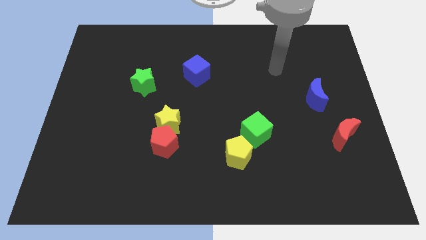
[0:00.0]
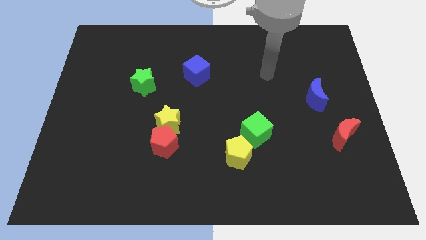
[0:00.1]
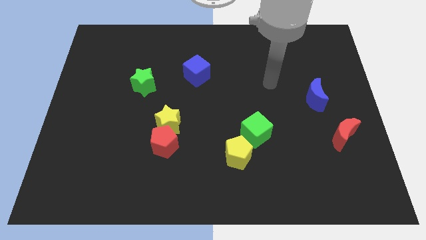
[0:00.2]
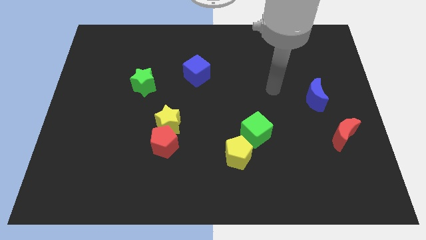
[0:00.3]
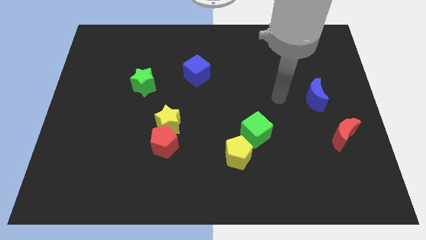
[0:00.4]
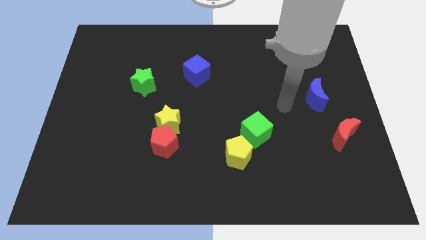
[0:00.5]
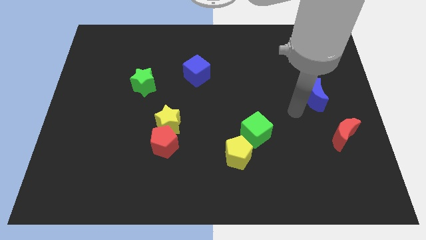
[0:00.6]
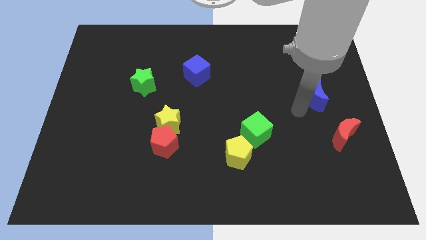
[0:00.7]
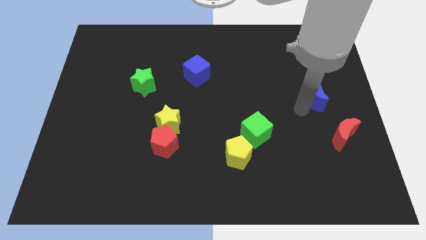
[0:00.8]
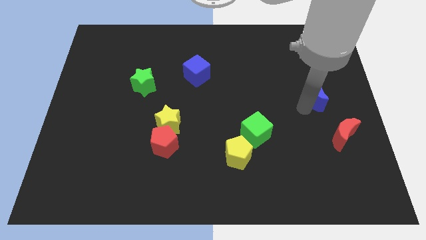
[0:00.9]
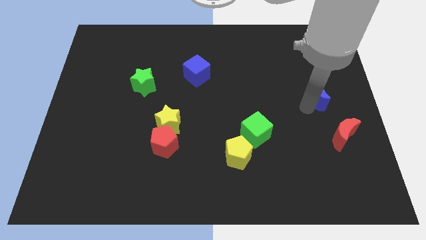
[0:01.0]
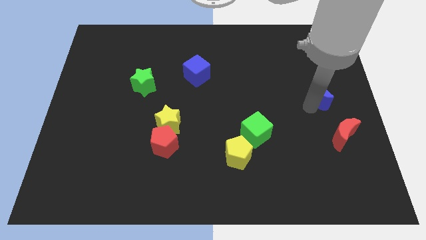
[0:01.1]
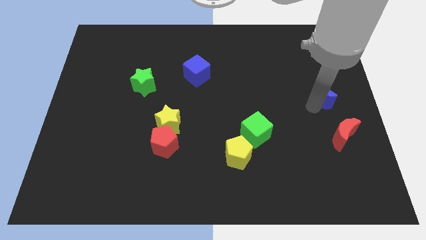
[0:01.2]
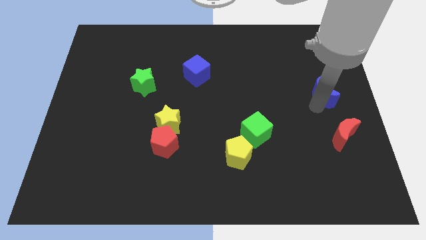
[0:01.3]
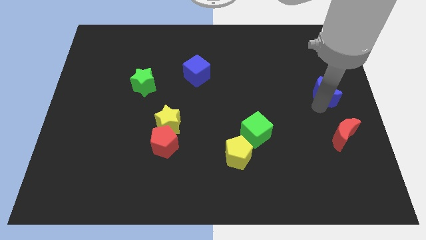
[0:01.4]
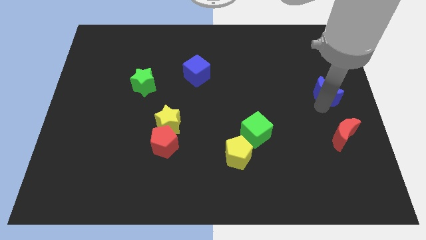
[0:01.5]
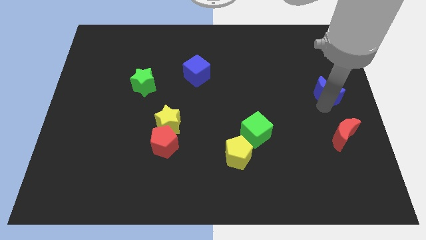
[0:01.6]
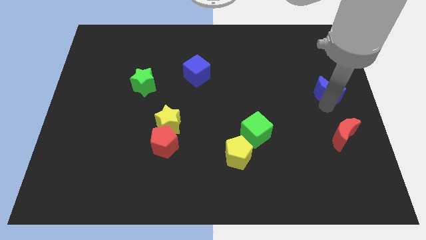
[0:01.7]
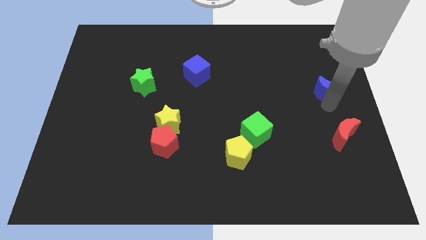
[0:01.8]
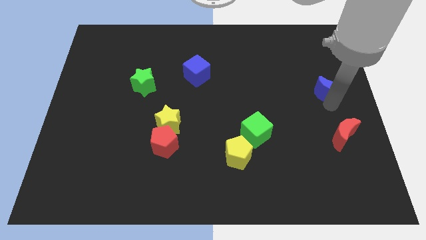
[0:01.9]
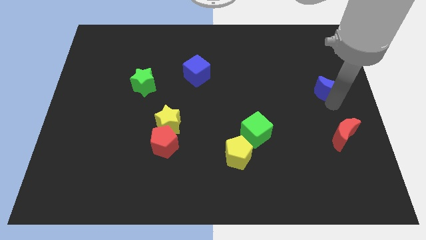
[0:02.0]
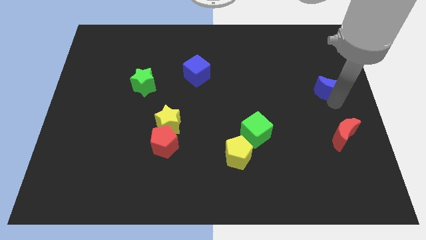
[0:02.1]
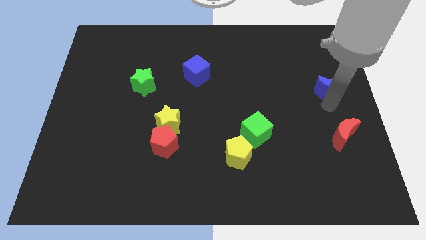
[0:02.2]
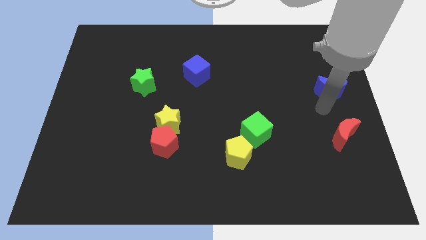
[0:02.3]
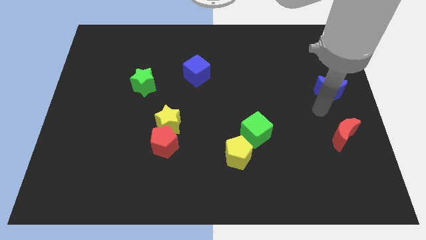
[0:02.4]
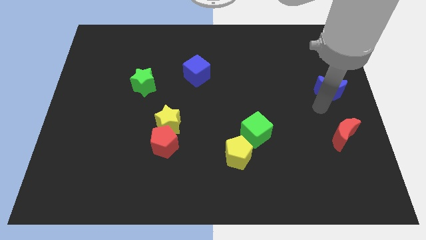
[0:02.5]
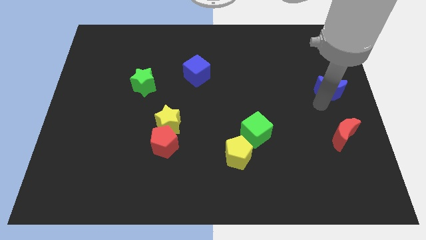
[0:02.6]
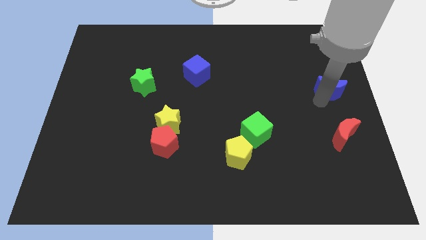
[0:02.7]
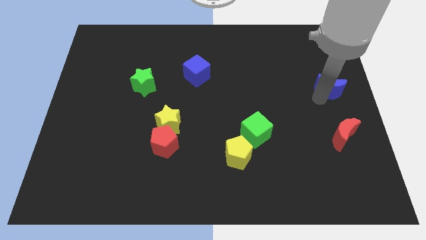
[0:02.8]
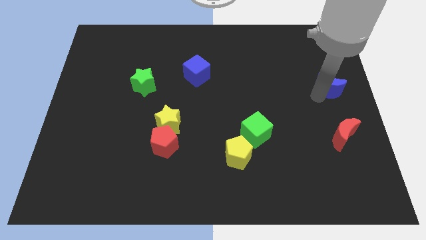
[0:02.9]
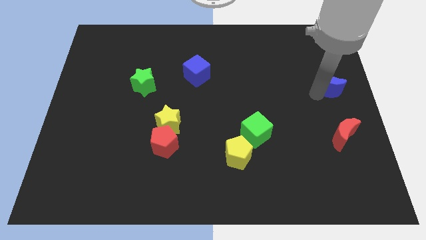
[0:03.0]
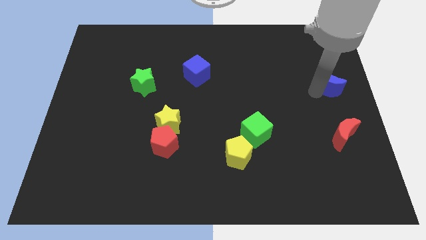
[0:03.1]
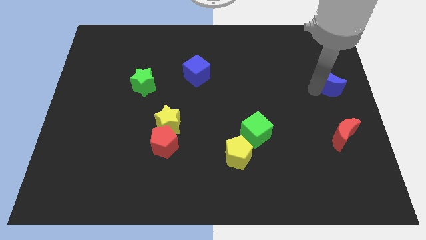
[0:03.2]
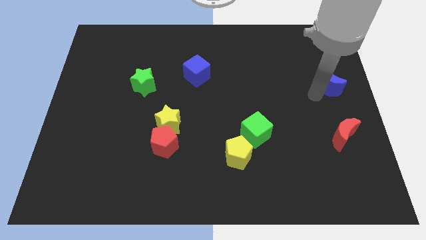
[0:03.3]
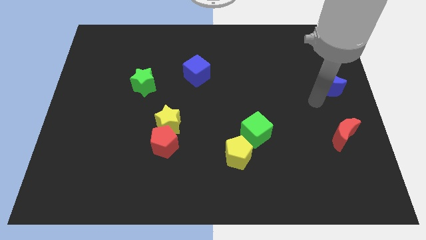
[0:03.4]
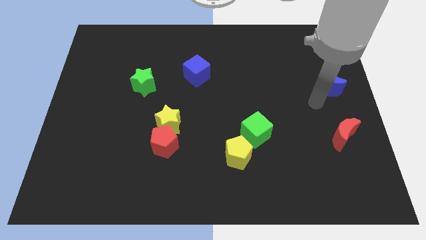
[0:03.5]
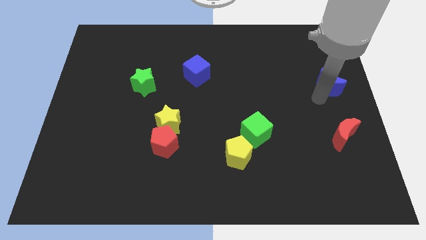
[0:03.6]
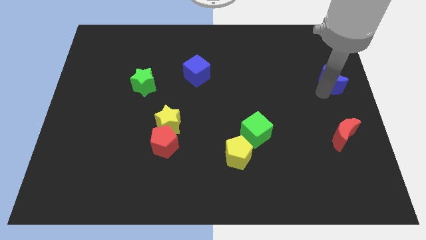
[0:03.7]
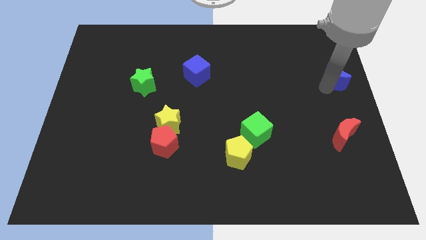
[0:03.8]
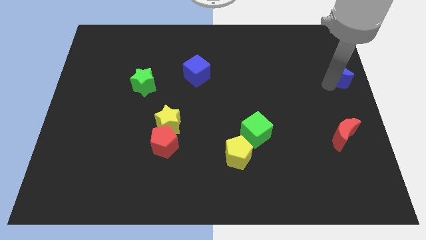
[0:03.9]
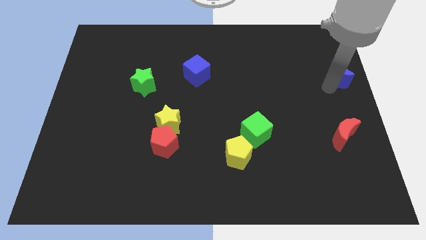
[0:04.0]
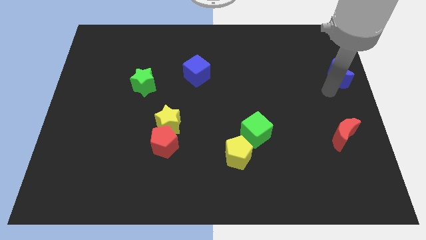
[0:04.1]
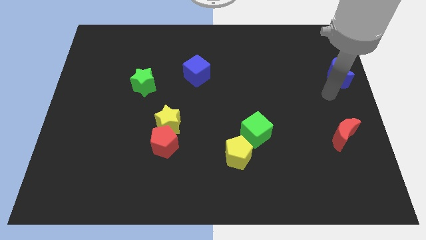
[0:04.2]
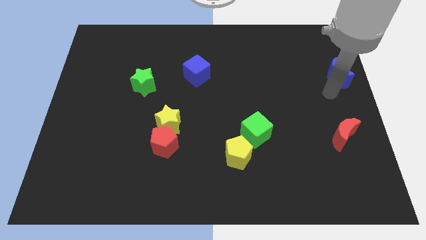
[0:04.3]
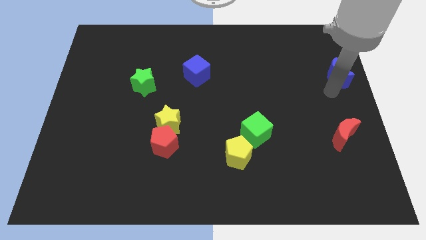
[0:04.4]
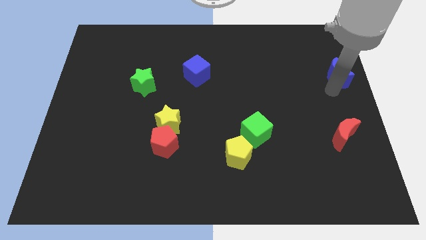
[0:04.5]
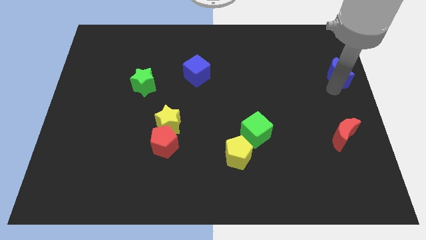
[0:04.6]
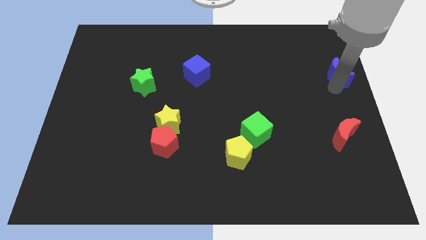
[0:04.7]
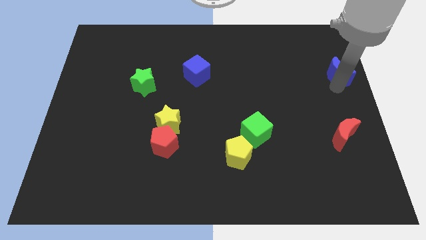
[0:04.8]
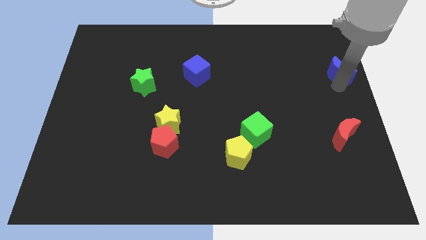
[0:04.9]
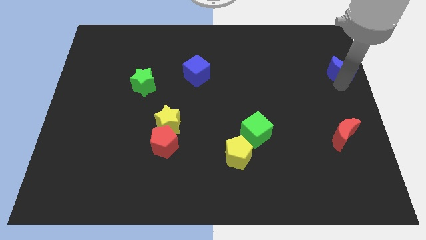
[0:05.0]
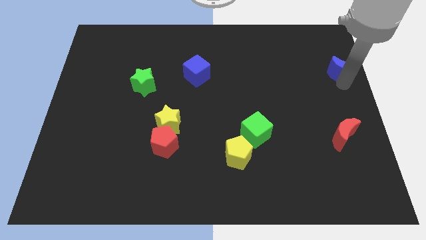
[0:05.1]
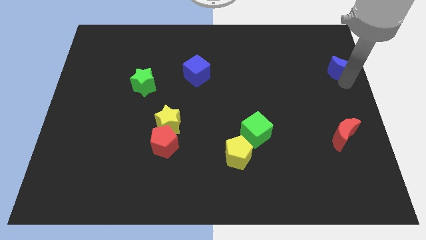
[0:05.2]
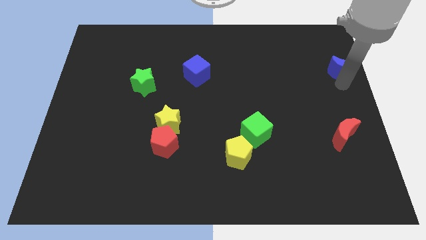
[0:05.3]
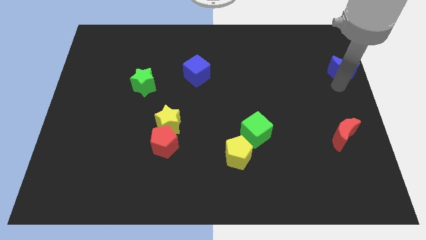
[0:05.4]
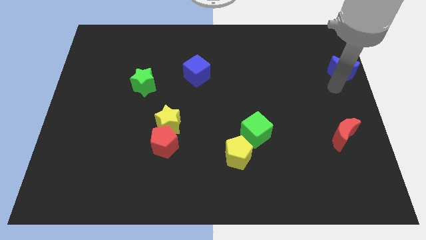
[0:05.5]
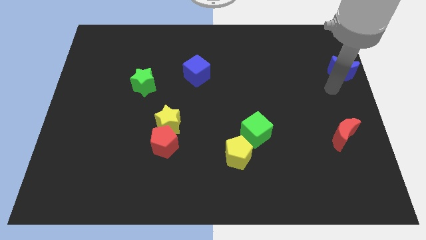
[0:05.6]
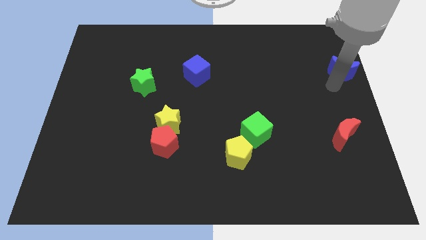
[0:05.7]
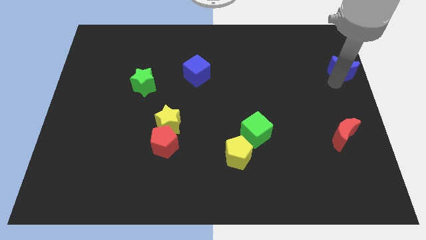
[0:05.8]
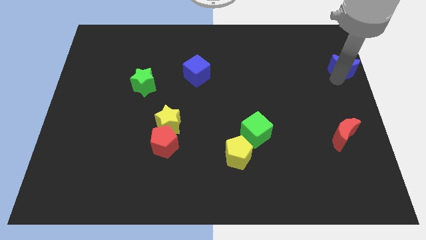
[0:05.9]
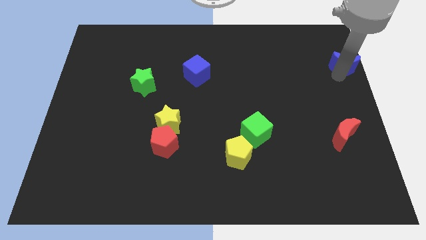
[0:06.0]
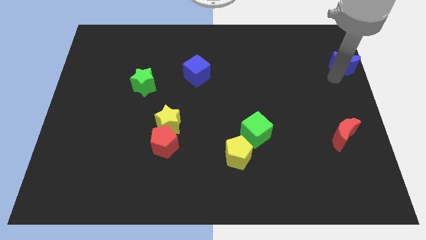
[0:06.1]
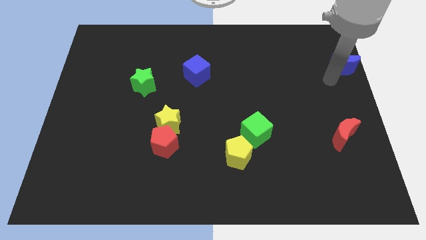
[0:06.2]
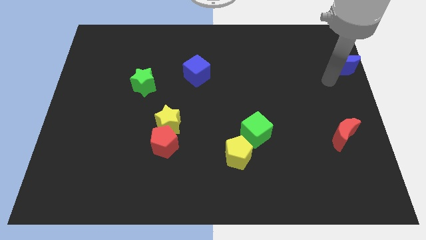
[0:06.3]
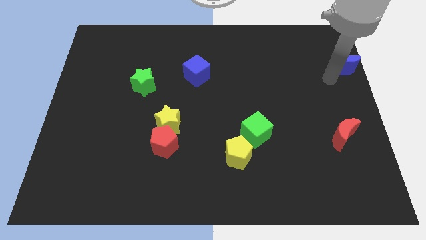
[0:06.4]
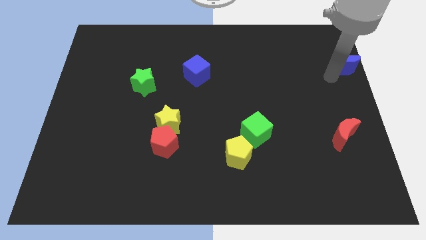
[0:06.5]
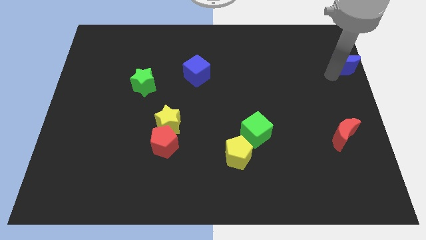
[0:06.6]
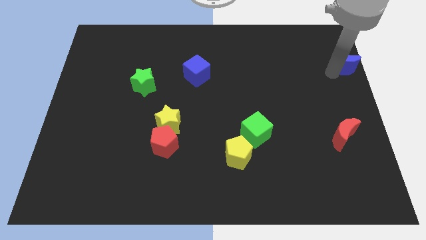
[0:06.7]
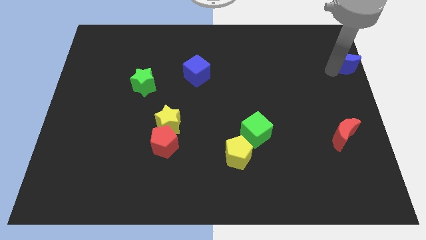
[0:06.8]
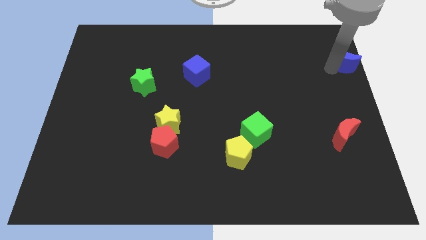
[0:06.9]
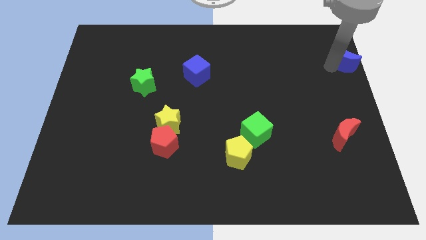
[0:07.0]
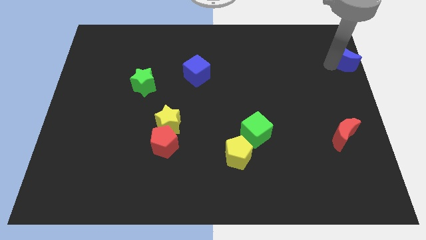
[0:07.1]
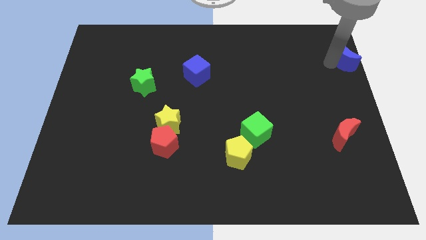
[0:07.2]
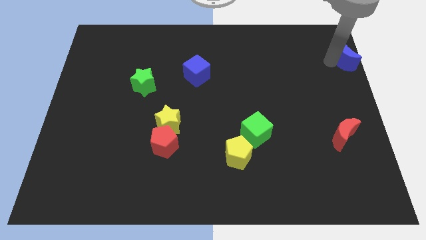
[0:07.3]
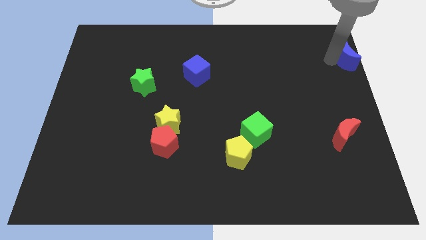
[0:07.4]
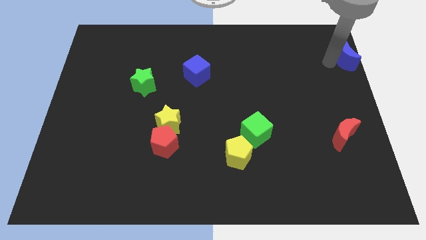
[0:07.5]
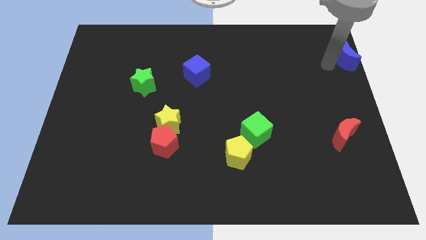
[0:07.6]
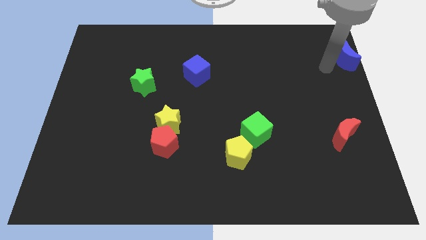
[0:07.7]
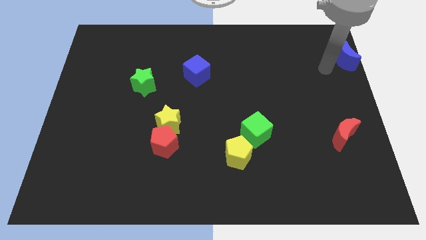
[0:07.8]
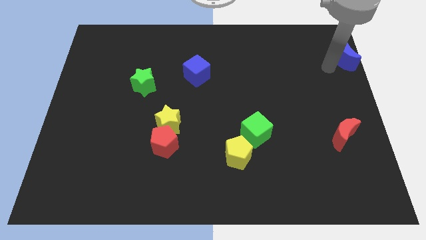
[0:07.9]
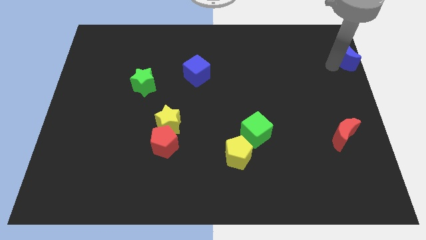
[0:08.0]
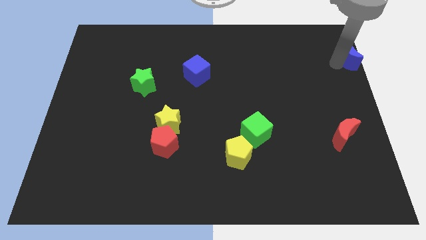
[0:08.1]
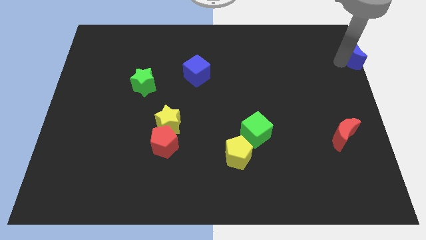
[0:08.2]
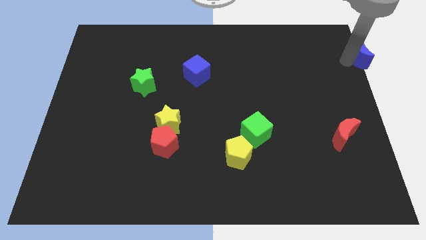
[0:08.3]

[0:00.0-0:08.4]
push the blue moon to the top right corner

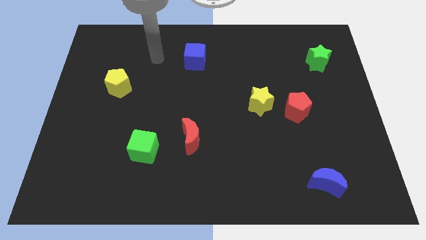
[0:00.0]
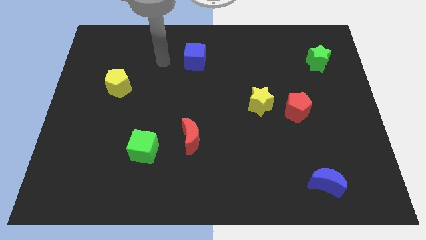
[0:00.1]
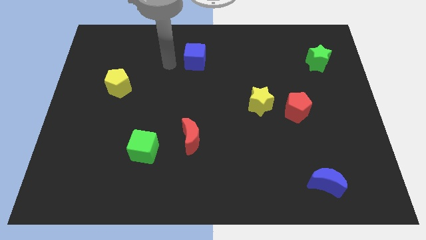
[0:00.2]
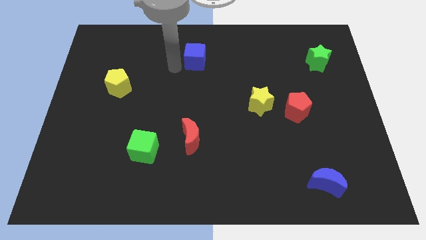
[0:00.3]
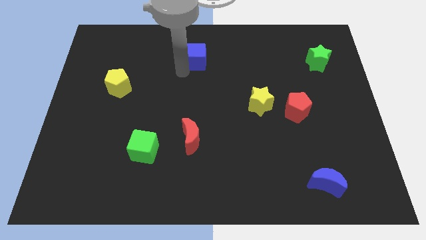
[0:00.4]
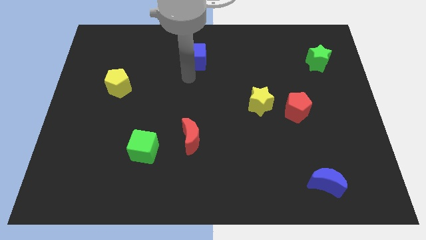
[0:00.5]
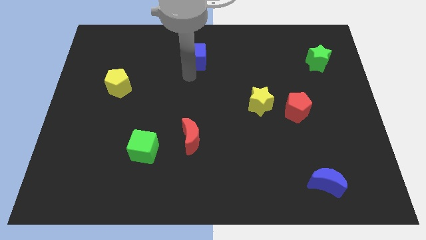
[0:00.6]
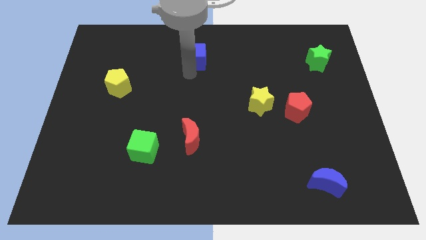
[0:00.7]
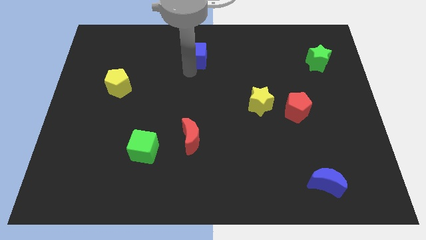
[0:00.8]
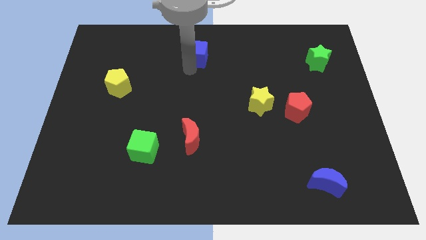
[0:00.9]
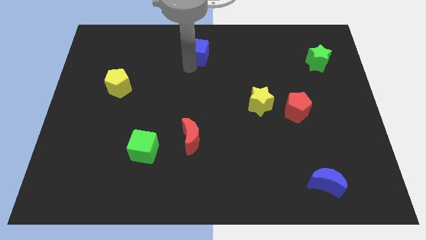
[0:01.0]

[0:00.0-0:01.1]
put the blue cube to the top
